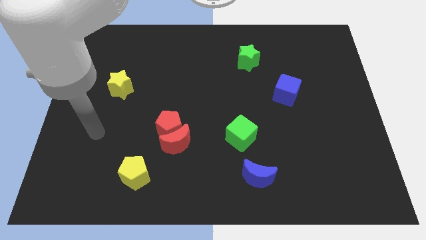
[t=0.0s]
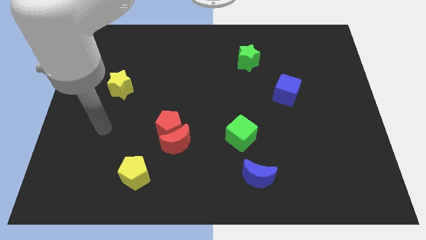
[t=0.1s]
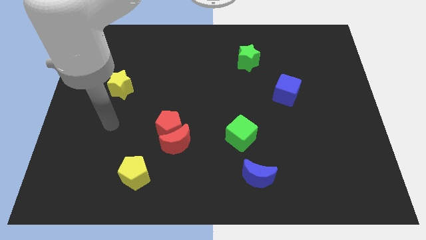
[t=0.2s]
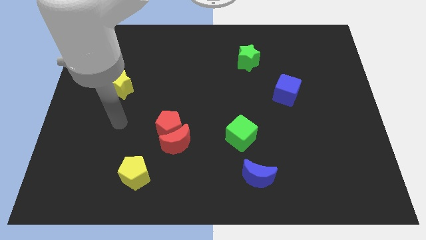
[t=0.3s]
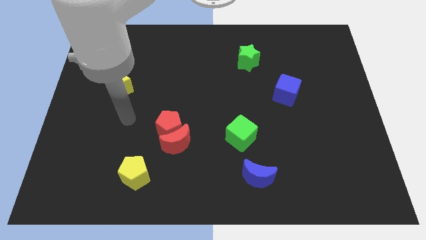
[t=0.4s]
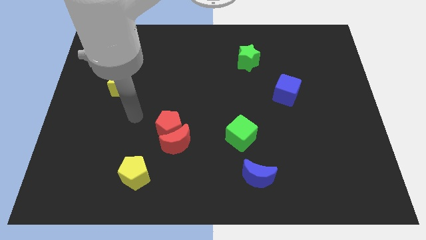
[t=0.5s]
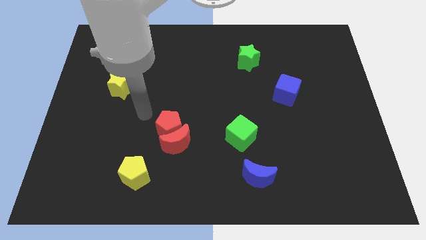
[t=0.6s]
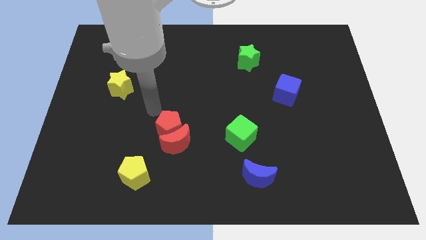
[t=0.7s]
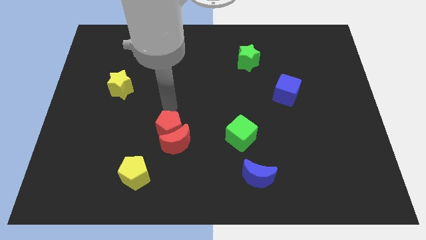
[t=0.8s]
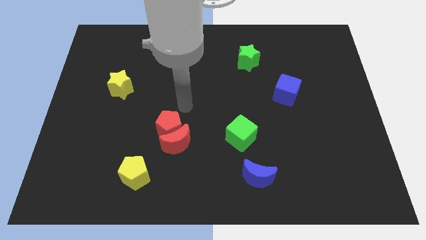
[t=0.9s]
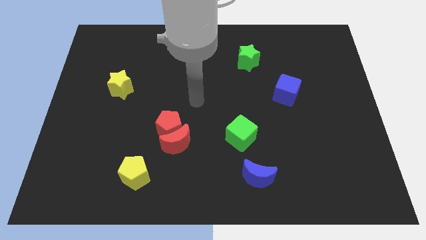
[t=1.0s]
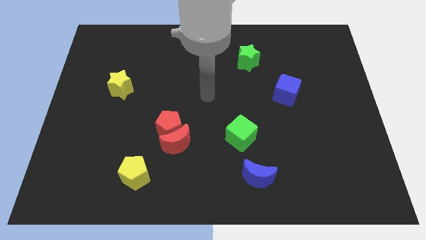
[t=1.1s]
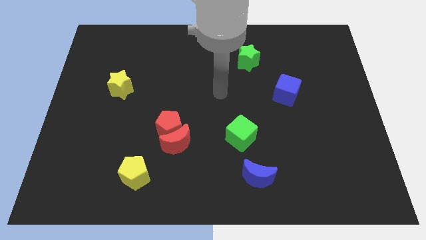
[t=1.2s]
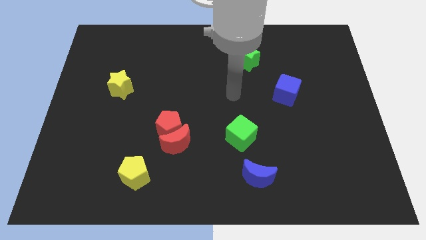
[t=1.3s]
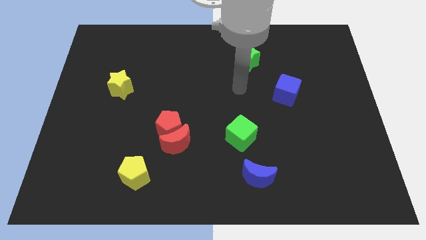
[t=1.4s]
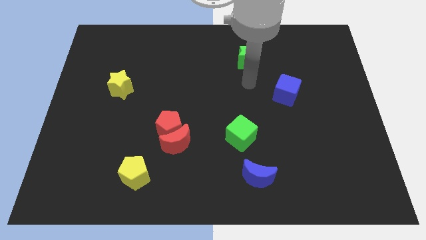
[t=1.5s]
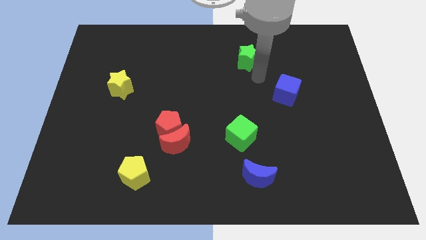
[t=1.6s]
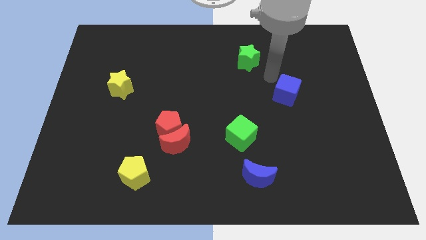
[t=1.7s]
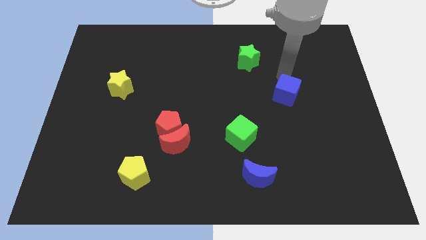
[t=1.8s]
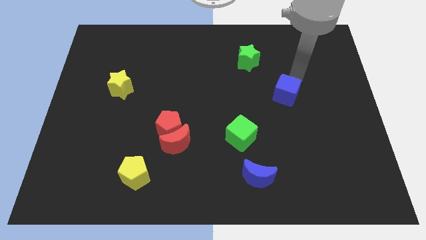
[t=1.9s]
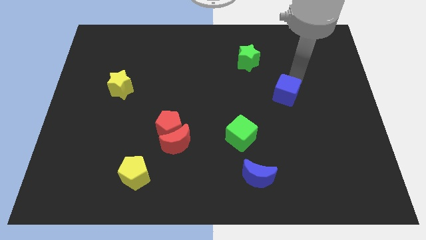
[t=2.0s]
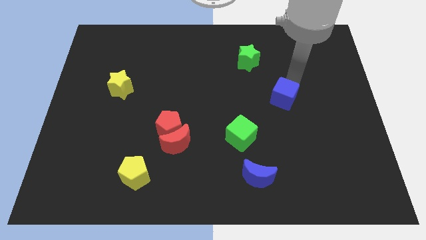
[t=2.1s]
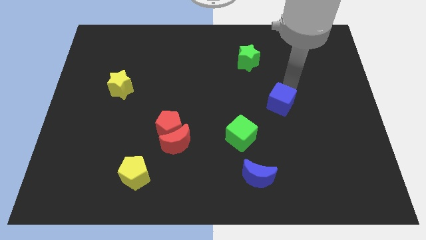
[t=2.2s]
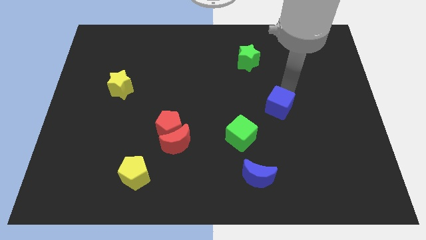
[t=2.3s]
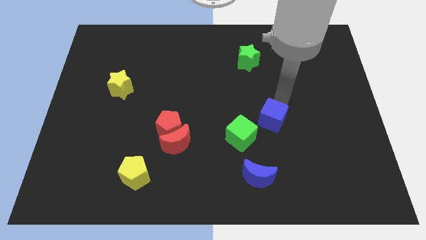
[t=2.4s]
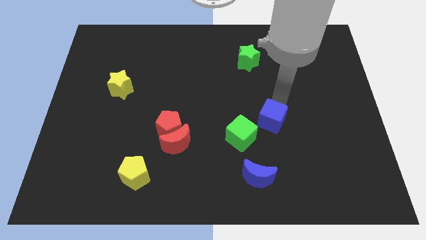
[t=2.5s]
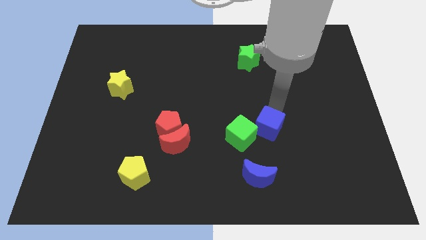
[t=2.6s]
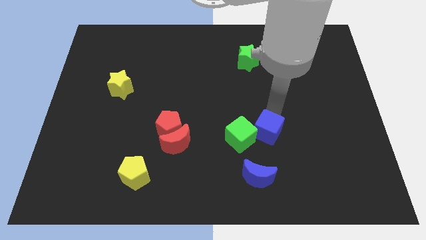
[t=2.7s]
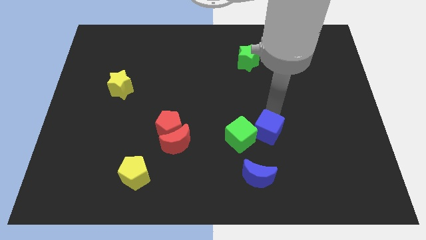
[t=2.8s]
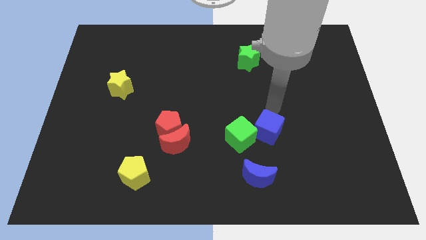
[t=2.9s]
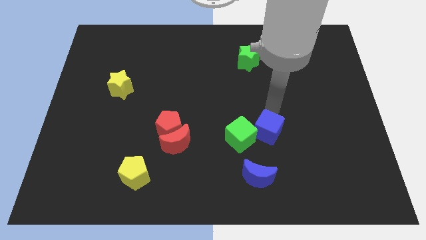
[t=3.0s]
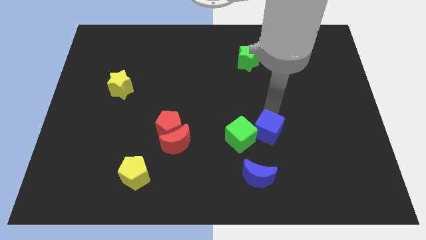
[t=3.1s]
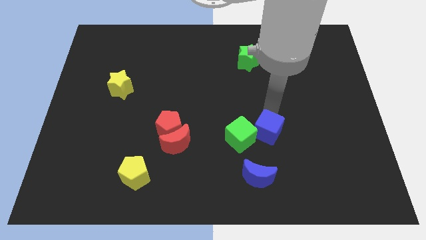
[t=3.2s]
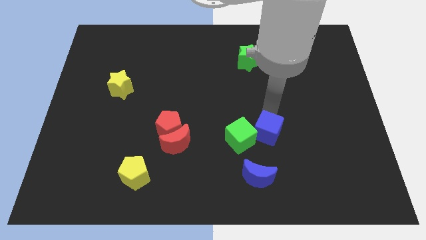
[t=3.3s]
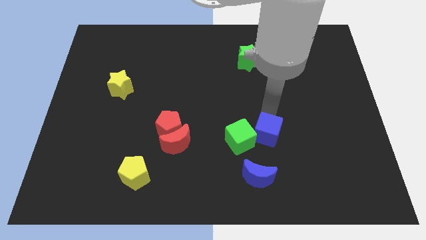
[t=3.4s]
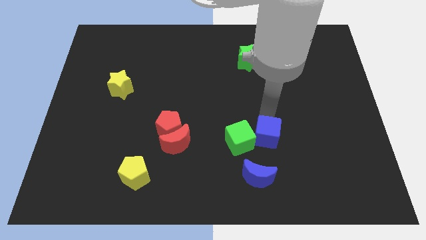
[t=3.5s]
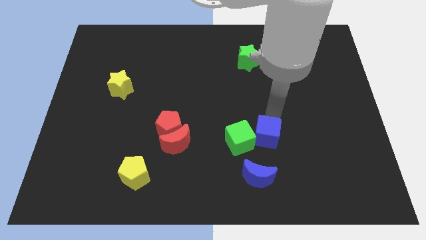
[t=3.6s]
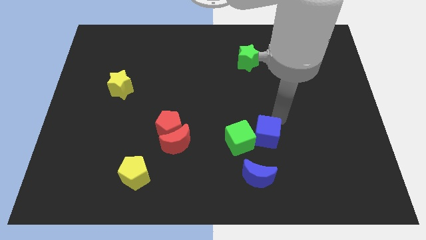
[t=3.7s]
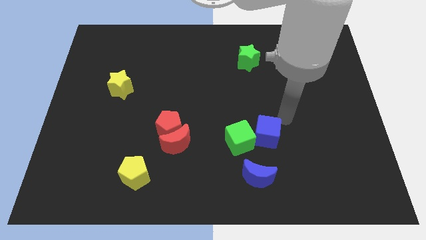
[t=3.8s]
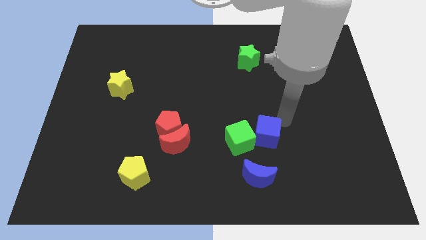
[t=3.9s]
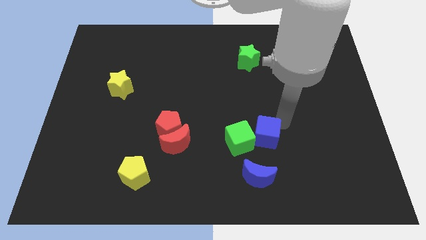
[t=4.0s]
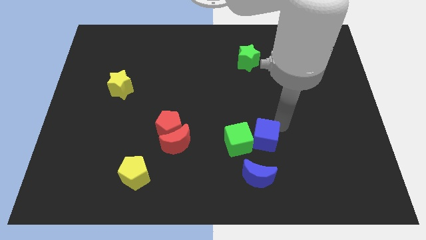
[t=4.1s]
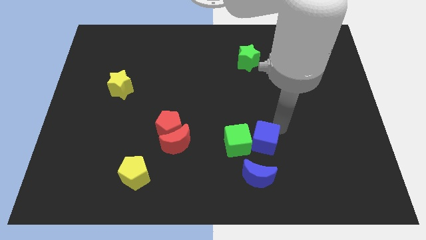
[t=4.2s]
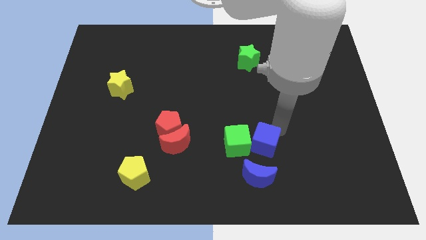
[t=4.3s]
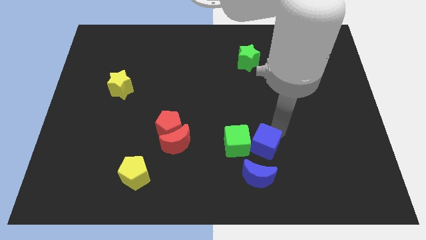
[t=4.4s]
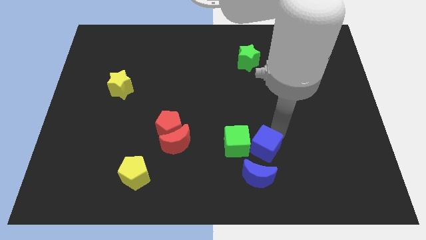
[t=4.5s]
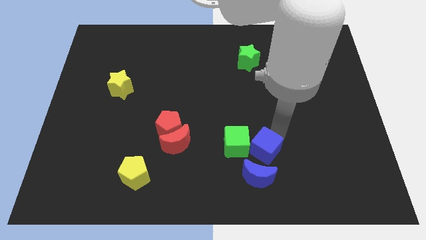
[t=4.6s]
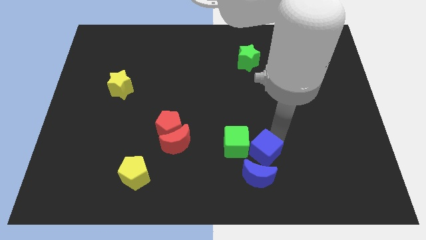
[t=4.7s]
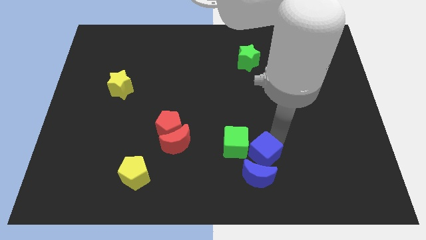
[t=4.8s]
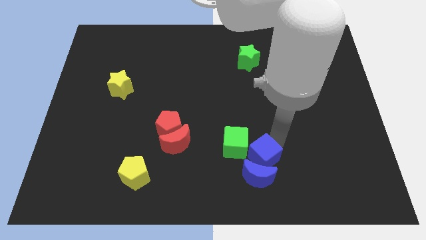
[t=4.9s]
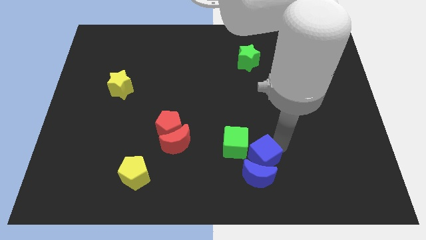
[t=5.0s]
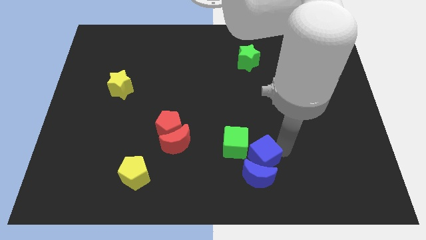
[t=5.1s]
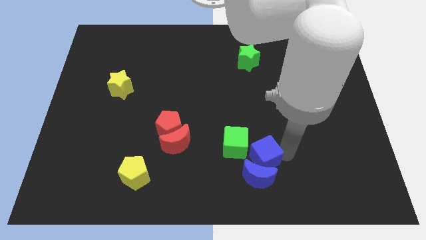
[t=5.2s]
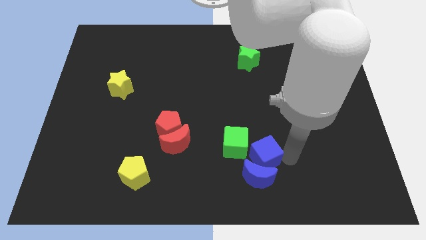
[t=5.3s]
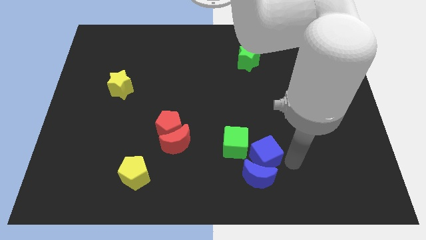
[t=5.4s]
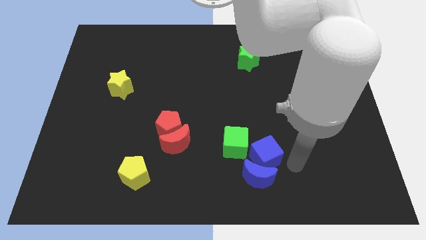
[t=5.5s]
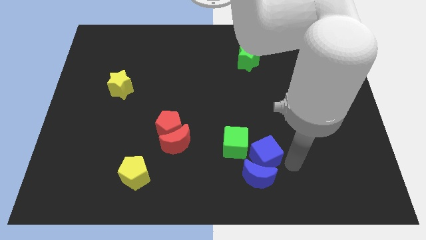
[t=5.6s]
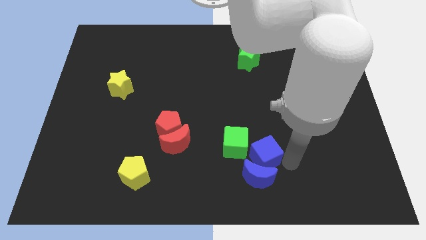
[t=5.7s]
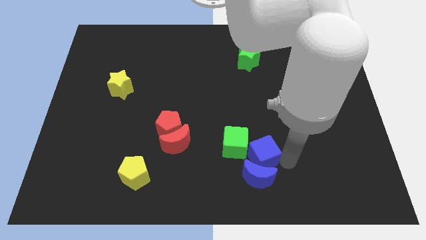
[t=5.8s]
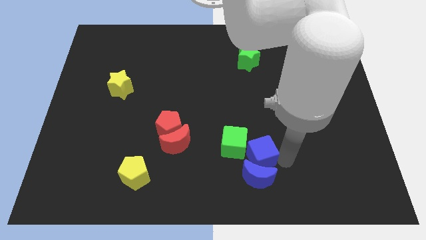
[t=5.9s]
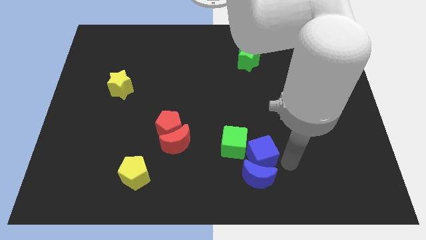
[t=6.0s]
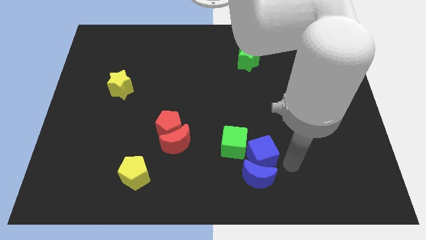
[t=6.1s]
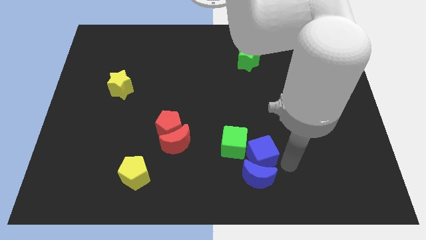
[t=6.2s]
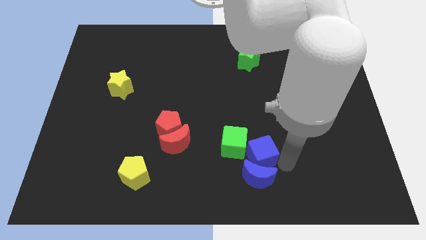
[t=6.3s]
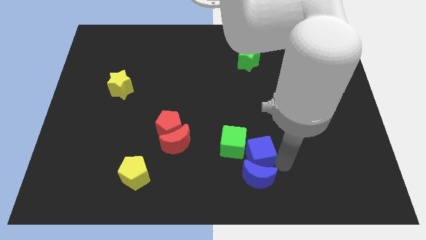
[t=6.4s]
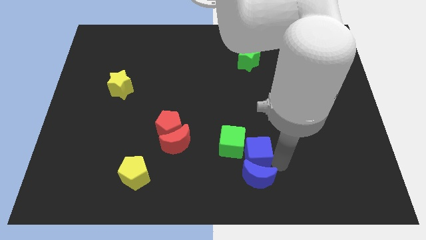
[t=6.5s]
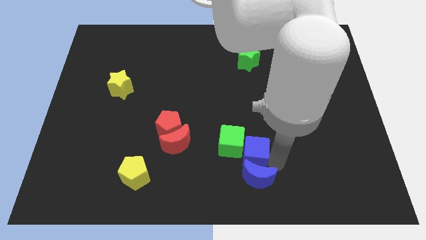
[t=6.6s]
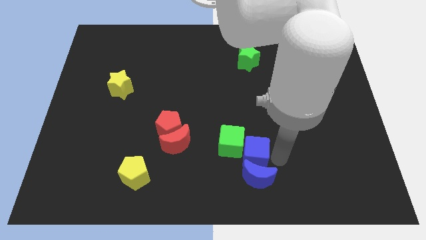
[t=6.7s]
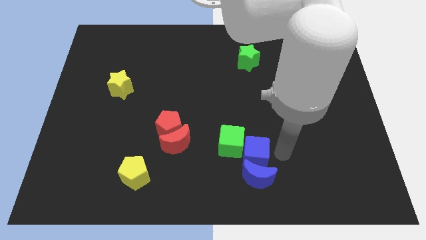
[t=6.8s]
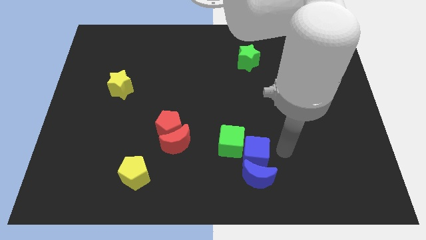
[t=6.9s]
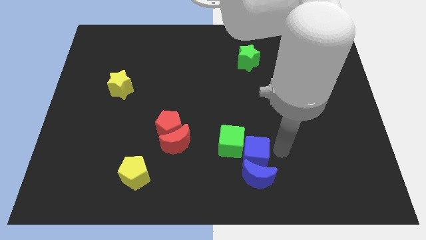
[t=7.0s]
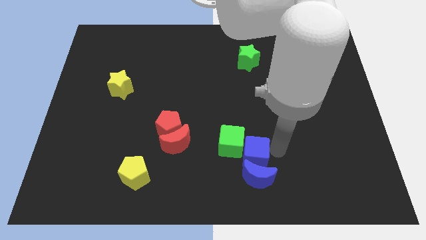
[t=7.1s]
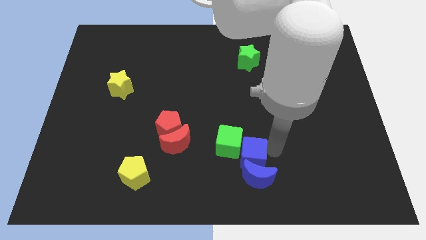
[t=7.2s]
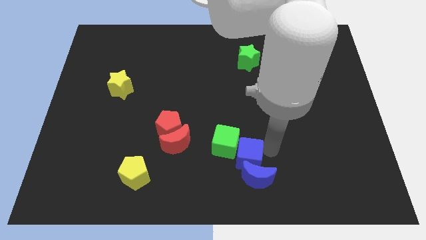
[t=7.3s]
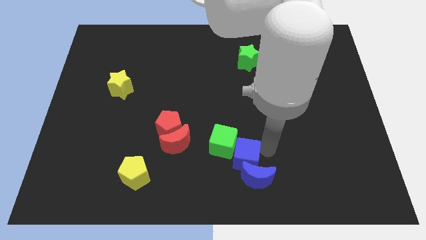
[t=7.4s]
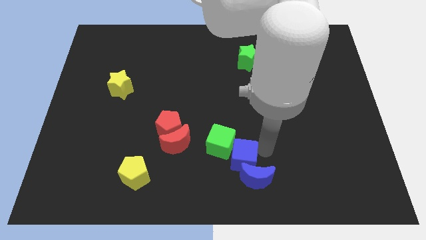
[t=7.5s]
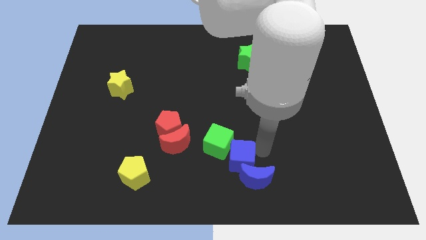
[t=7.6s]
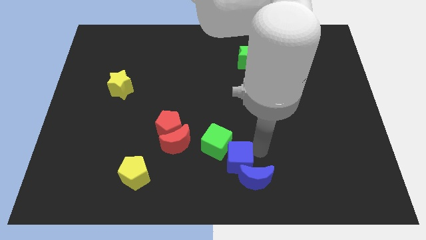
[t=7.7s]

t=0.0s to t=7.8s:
slide the blue cube left of the blue moon
